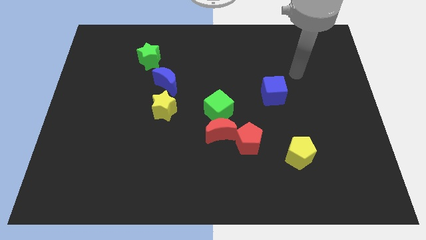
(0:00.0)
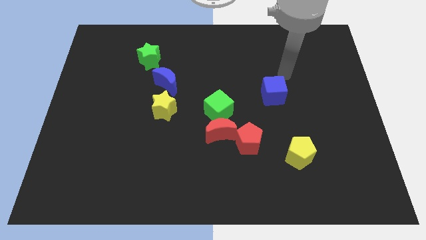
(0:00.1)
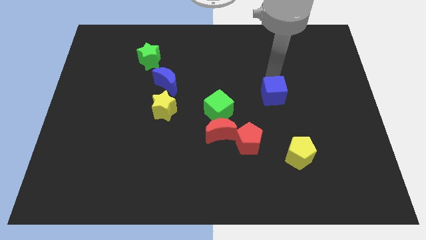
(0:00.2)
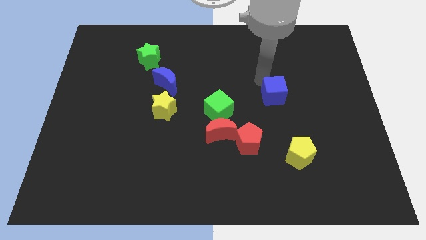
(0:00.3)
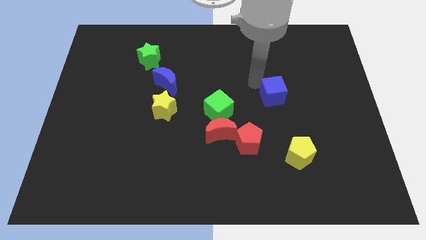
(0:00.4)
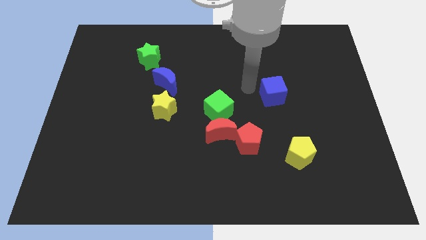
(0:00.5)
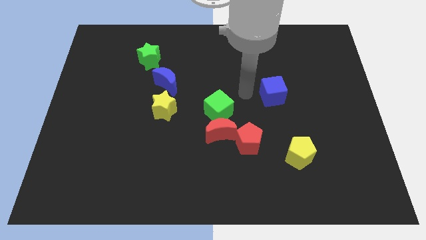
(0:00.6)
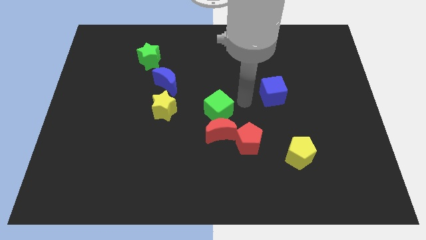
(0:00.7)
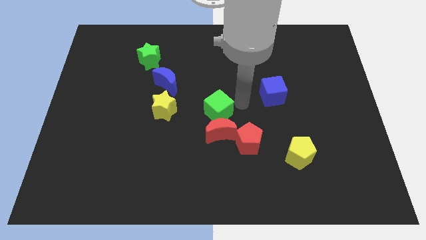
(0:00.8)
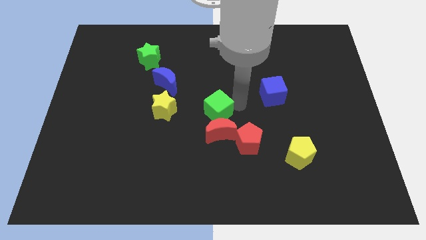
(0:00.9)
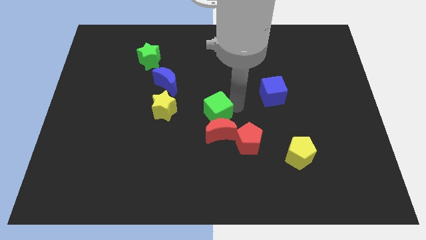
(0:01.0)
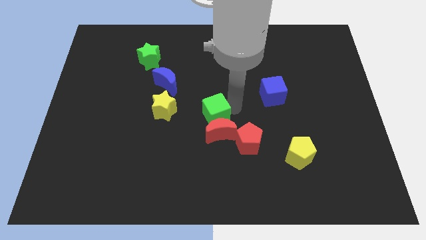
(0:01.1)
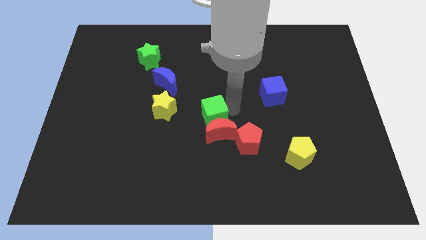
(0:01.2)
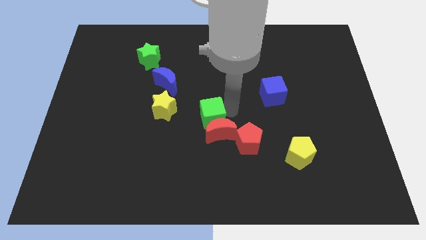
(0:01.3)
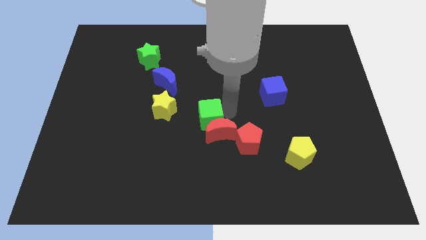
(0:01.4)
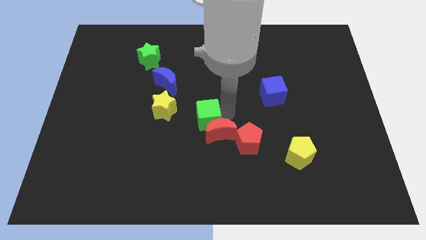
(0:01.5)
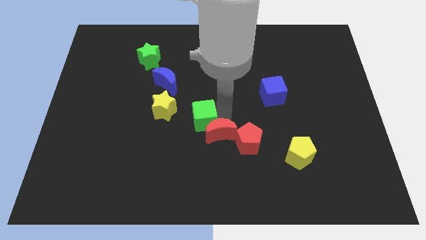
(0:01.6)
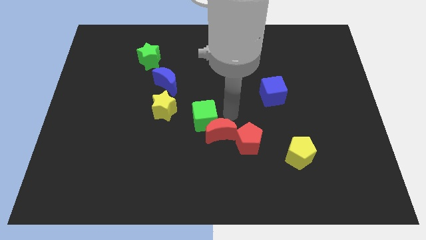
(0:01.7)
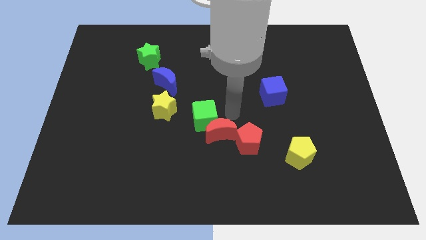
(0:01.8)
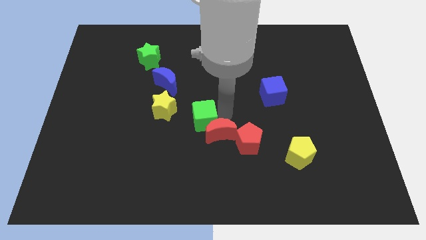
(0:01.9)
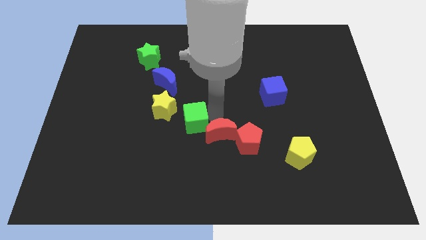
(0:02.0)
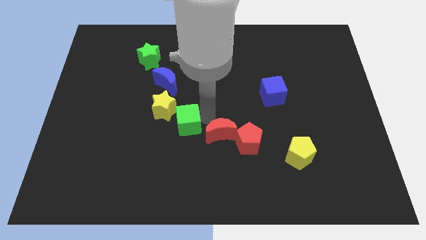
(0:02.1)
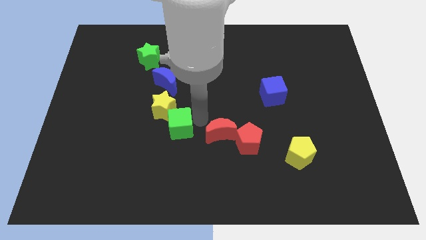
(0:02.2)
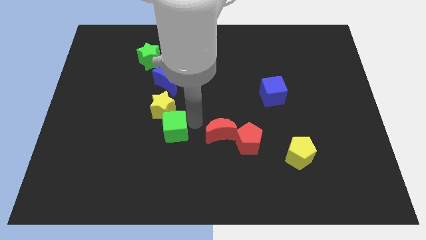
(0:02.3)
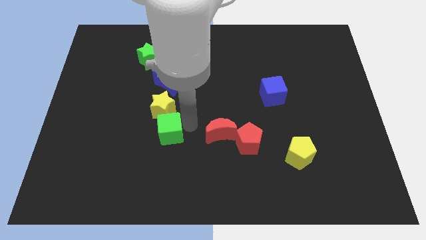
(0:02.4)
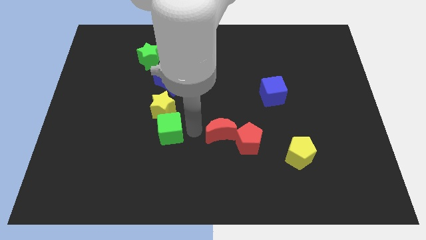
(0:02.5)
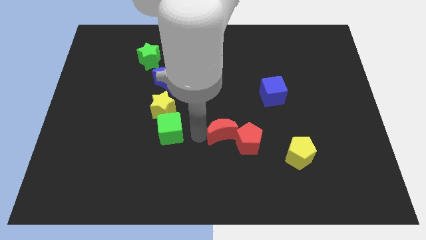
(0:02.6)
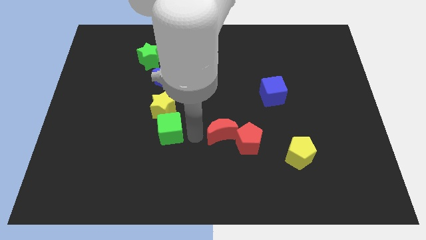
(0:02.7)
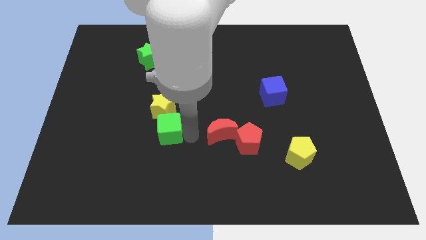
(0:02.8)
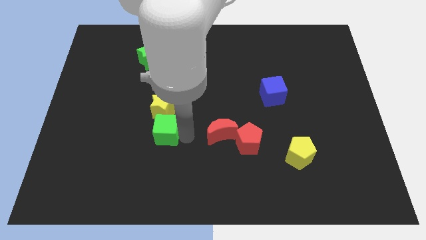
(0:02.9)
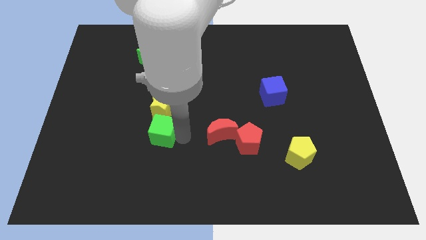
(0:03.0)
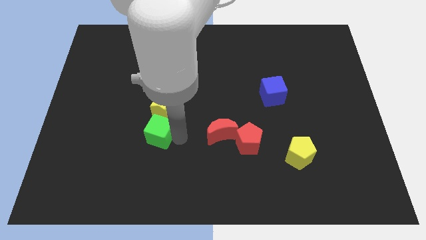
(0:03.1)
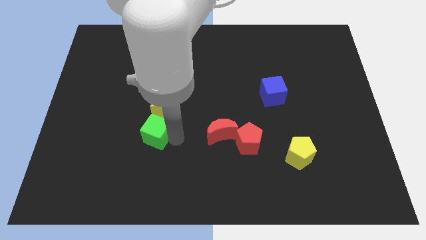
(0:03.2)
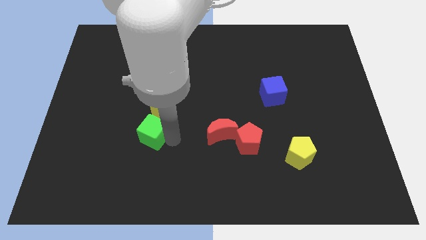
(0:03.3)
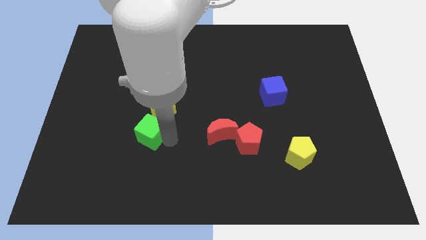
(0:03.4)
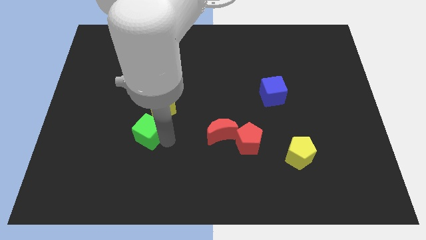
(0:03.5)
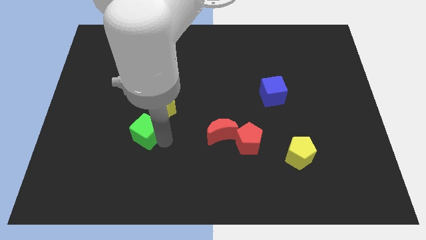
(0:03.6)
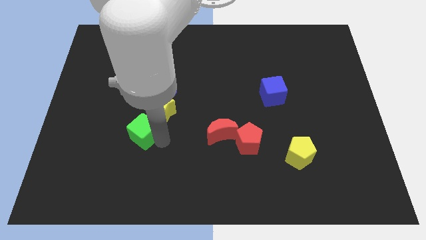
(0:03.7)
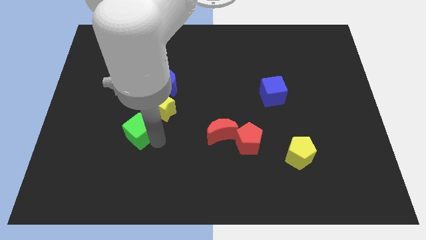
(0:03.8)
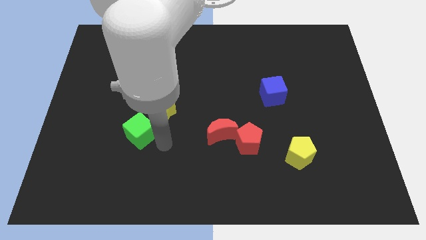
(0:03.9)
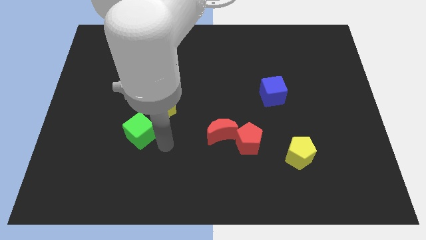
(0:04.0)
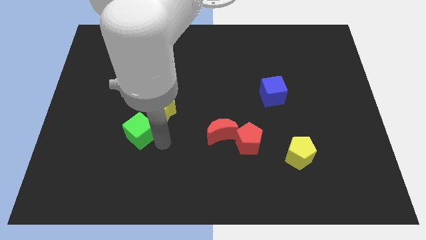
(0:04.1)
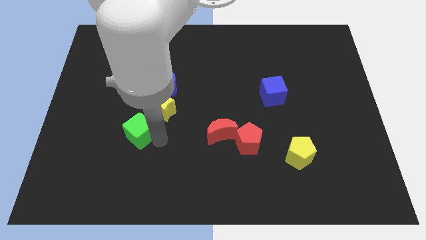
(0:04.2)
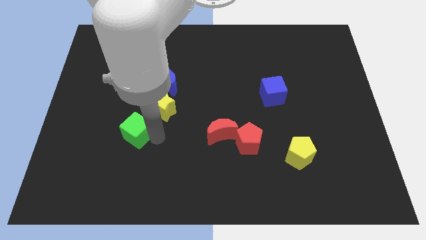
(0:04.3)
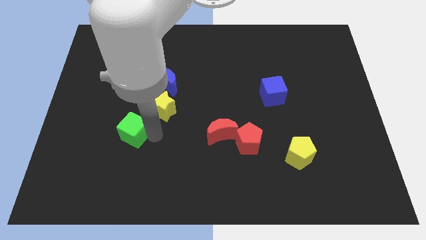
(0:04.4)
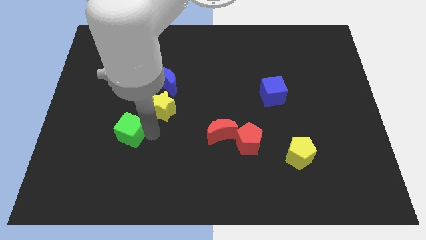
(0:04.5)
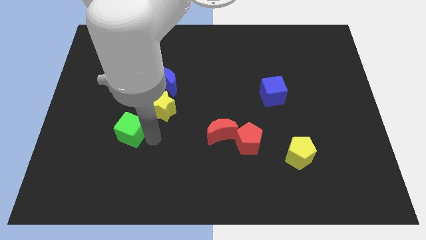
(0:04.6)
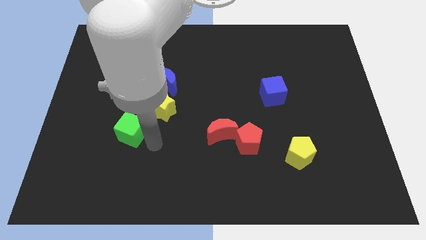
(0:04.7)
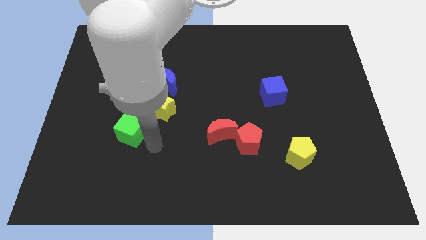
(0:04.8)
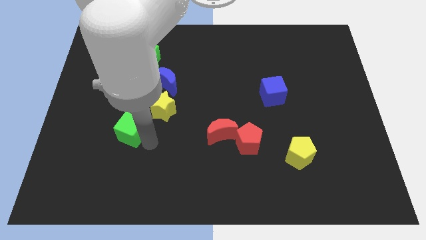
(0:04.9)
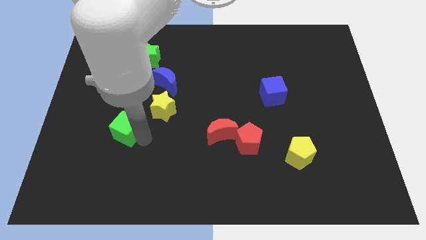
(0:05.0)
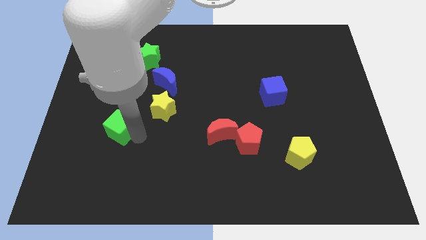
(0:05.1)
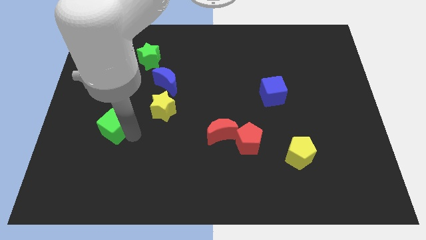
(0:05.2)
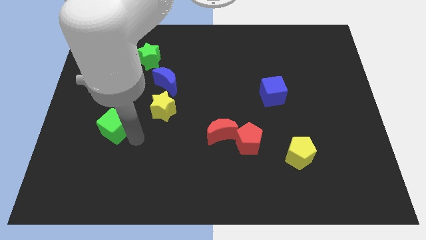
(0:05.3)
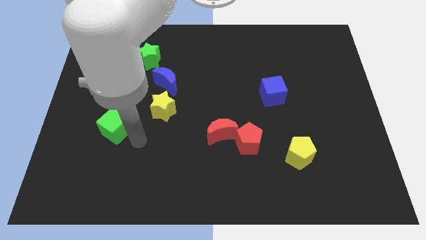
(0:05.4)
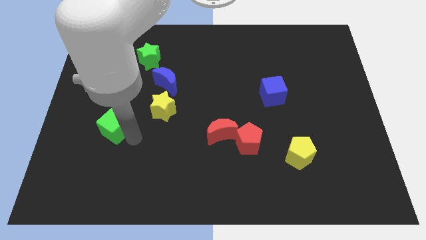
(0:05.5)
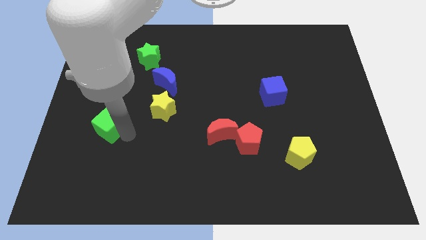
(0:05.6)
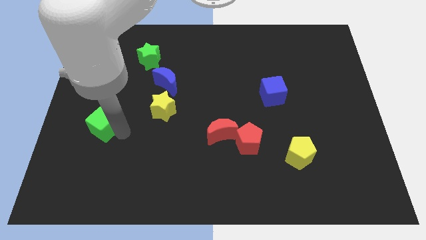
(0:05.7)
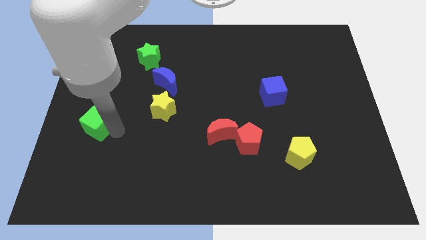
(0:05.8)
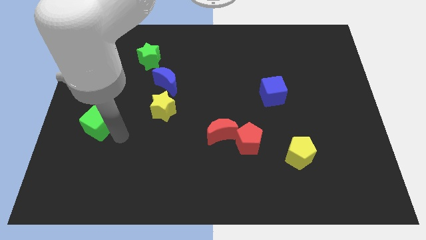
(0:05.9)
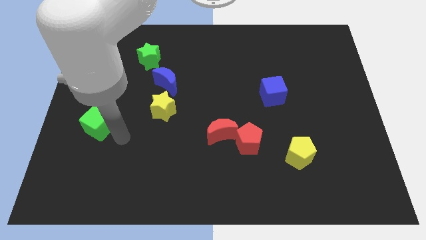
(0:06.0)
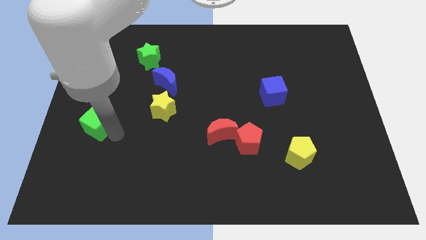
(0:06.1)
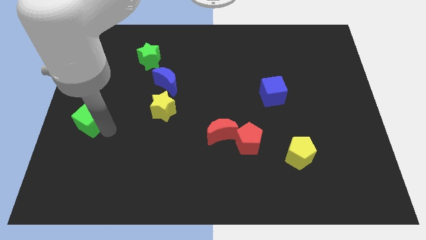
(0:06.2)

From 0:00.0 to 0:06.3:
move the green cube to the center left
